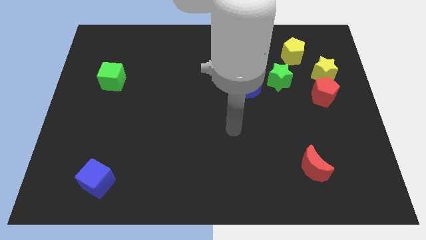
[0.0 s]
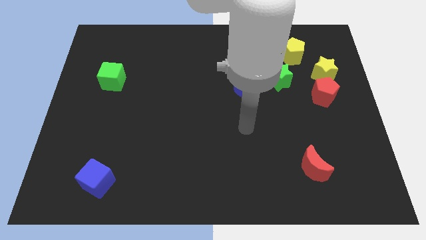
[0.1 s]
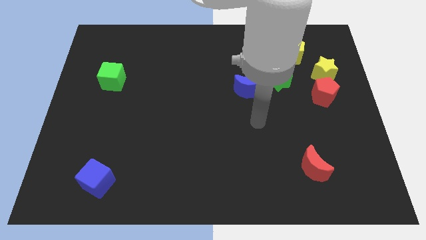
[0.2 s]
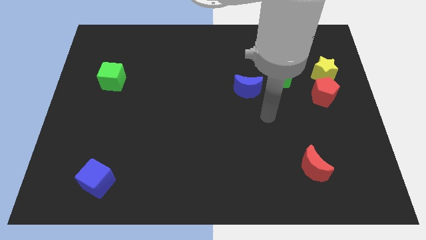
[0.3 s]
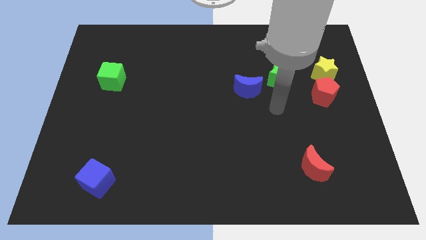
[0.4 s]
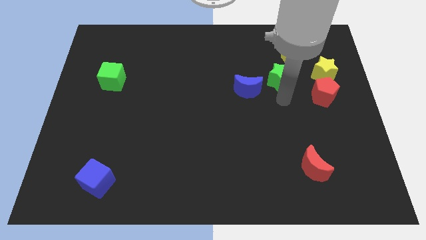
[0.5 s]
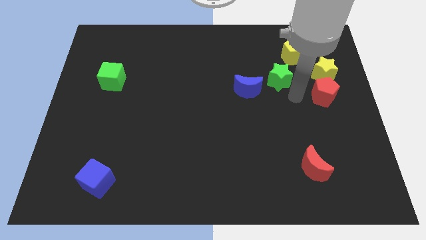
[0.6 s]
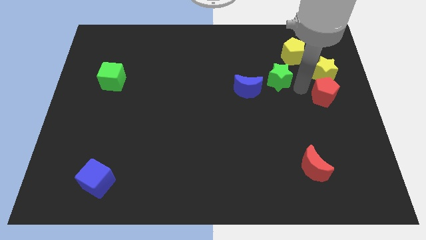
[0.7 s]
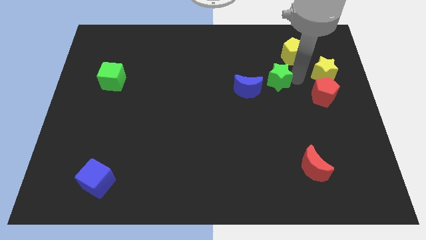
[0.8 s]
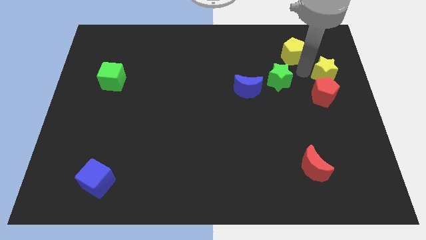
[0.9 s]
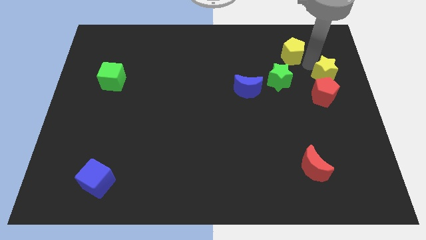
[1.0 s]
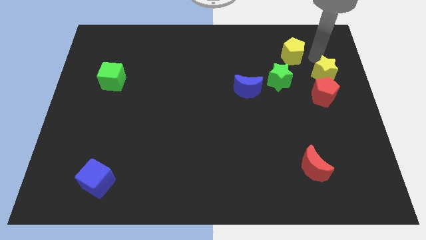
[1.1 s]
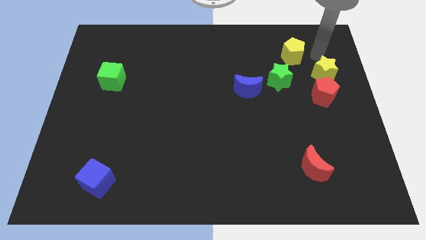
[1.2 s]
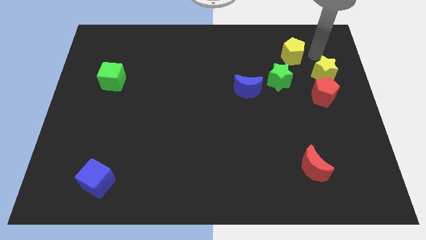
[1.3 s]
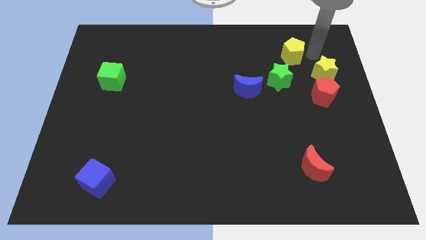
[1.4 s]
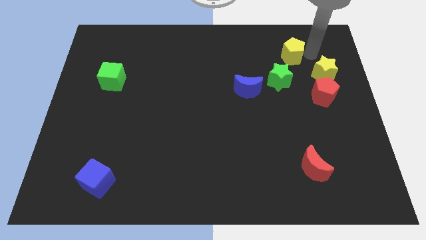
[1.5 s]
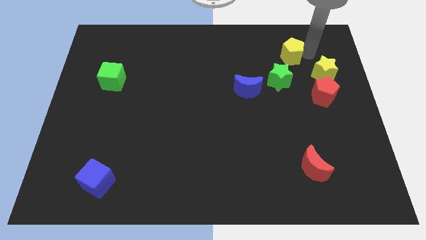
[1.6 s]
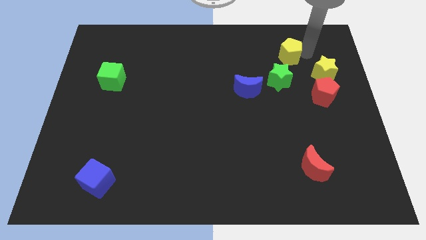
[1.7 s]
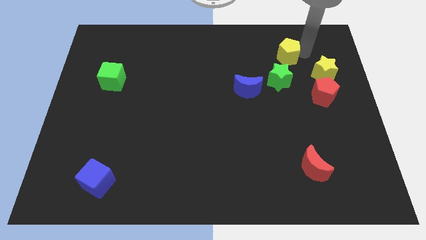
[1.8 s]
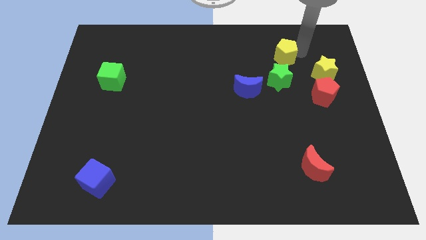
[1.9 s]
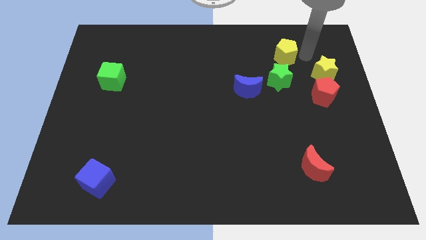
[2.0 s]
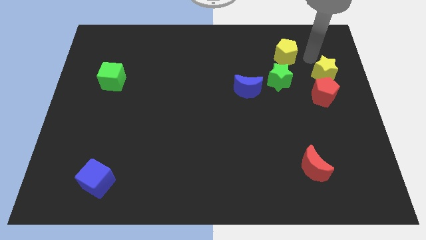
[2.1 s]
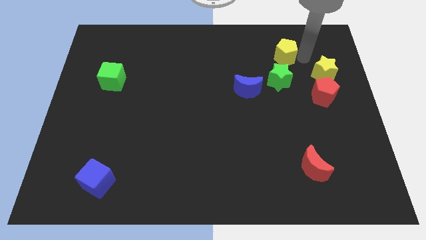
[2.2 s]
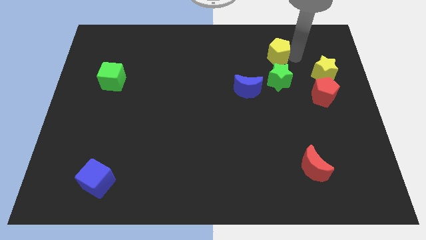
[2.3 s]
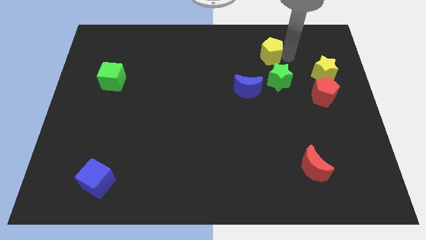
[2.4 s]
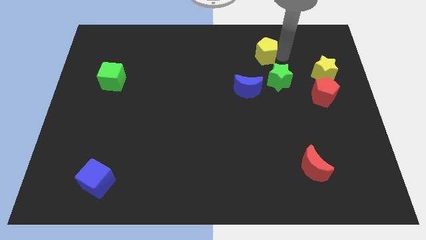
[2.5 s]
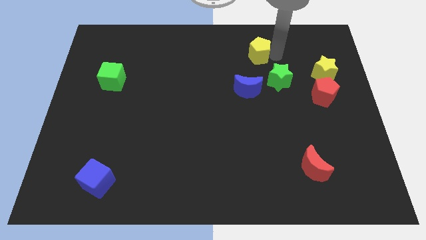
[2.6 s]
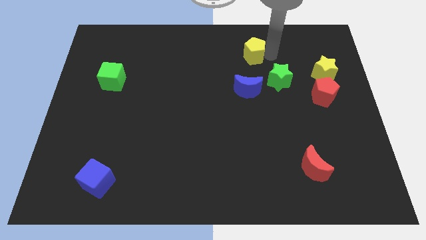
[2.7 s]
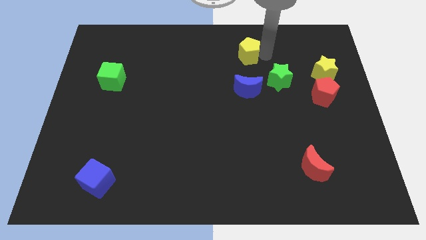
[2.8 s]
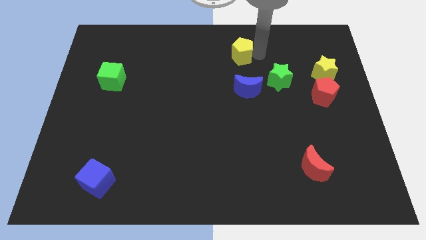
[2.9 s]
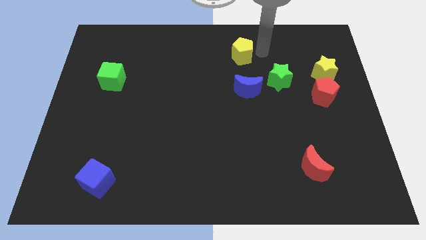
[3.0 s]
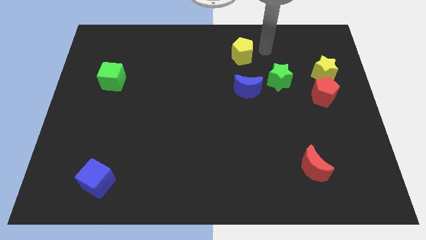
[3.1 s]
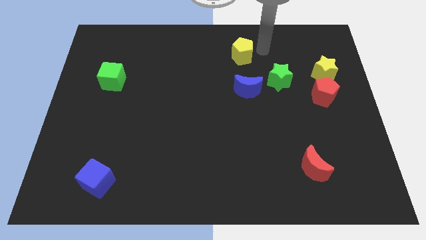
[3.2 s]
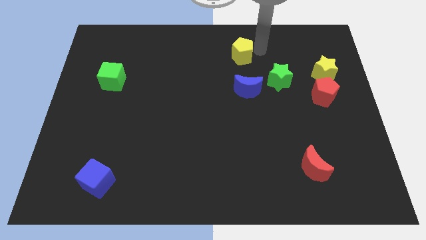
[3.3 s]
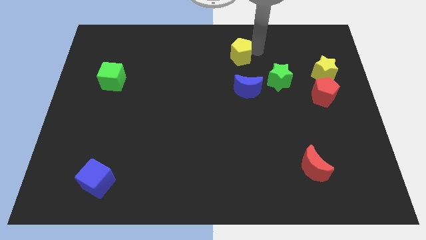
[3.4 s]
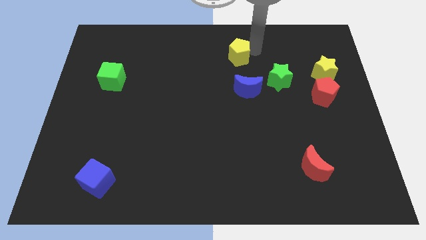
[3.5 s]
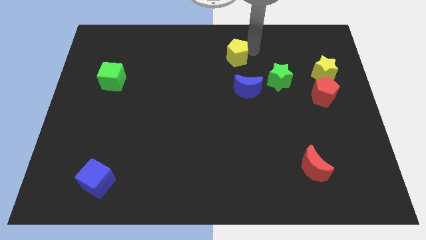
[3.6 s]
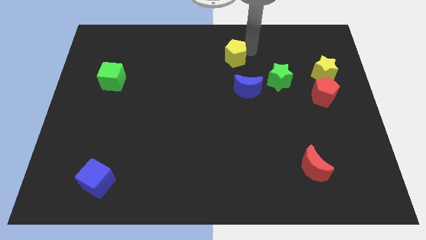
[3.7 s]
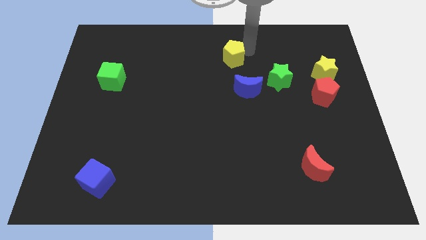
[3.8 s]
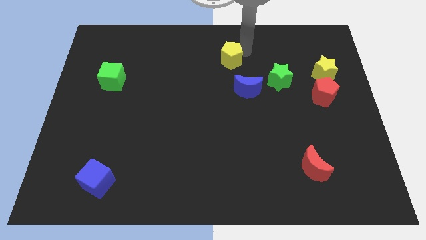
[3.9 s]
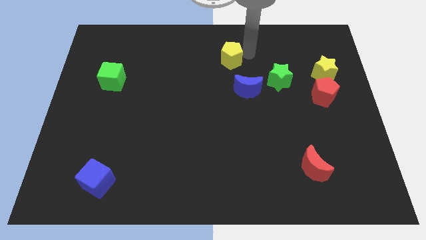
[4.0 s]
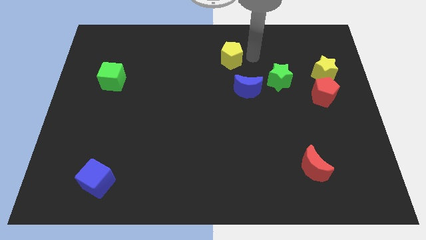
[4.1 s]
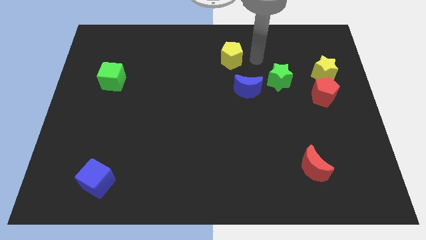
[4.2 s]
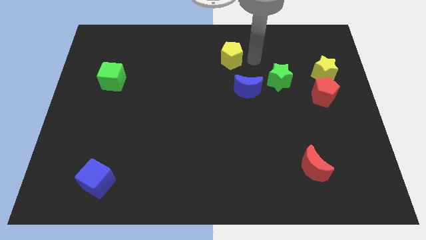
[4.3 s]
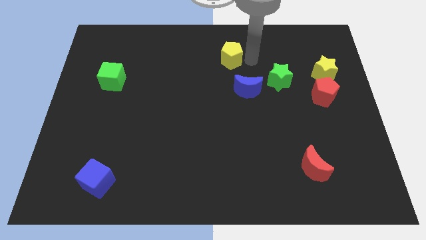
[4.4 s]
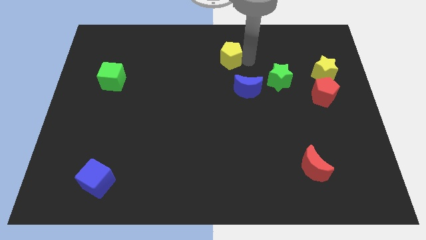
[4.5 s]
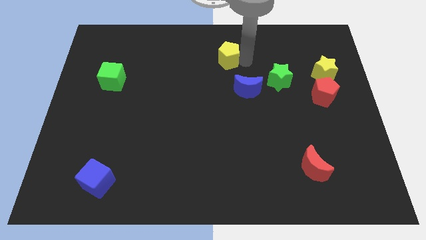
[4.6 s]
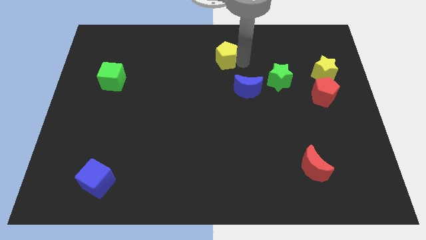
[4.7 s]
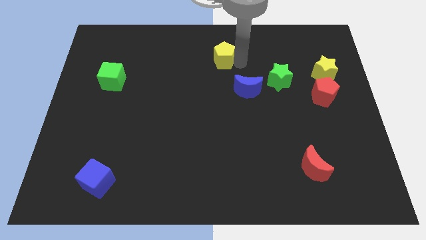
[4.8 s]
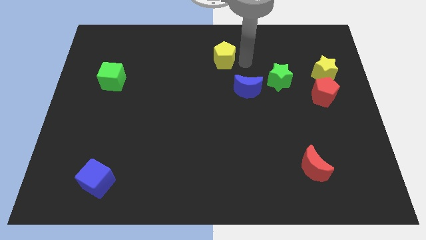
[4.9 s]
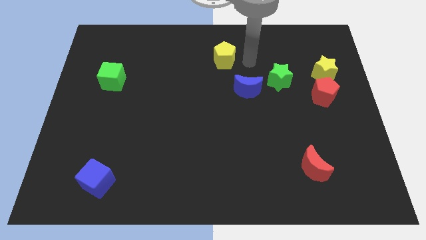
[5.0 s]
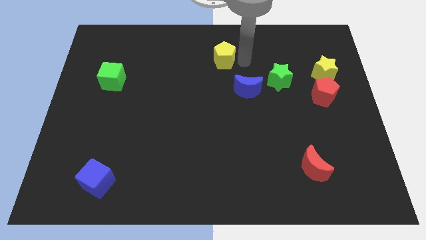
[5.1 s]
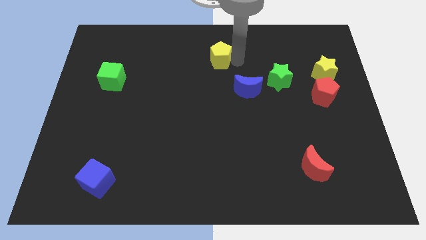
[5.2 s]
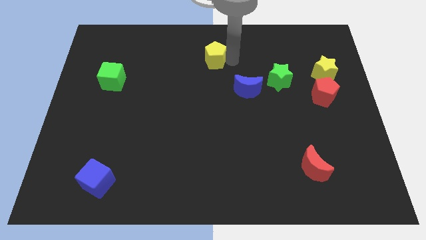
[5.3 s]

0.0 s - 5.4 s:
move the yellow pentagon left

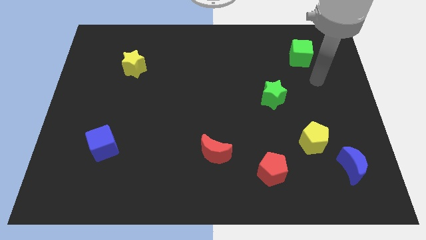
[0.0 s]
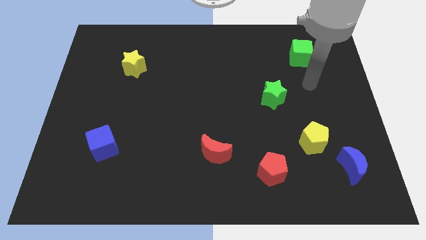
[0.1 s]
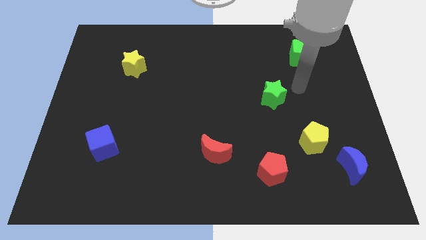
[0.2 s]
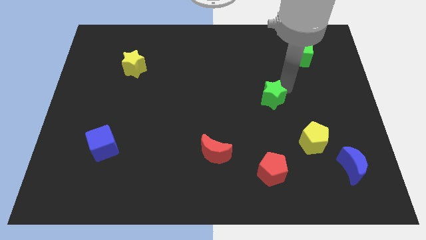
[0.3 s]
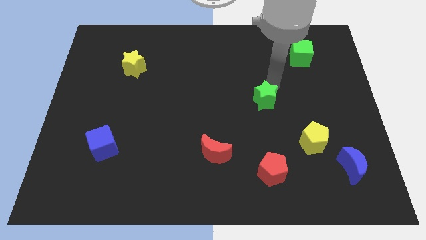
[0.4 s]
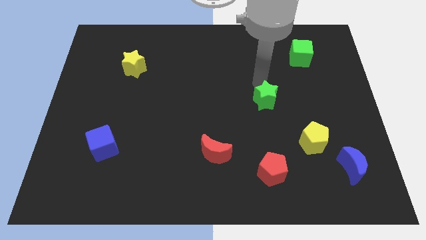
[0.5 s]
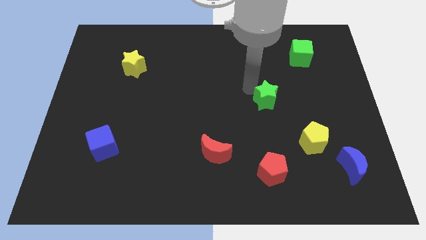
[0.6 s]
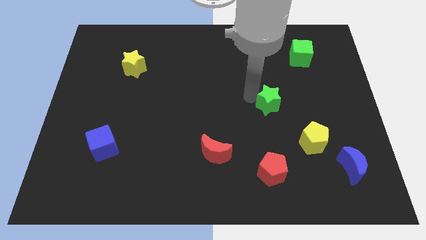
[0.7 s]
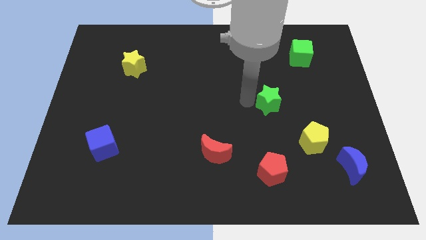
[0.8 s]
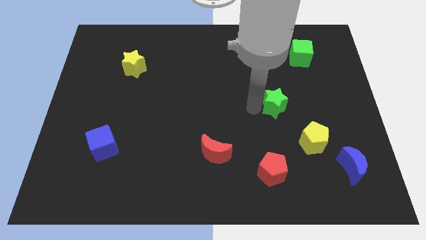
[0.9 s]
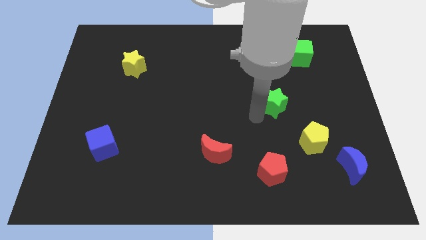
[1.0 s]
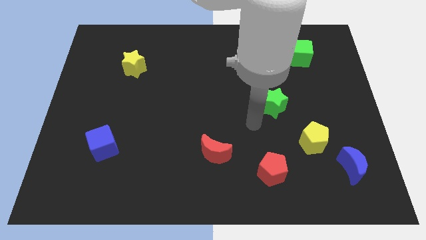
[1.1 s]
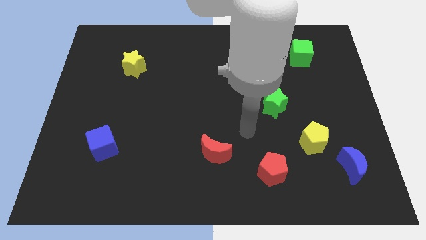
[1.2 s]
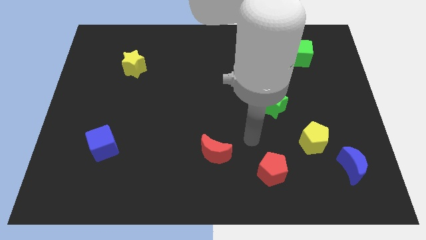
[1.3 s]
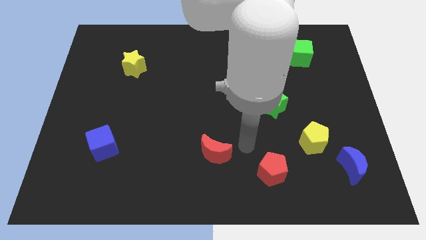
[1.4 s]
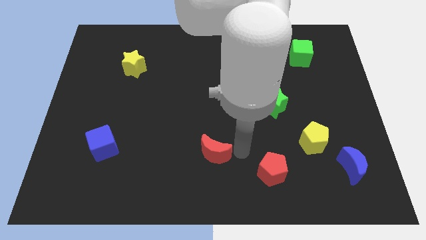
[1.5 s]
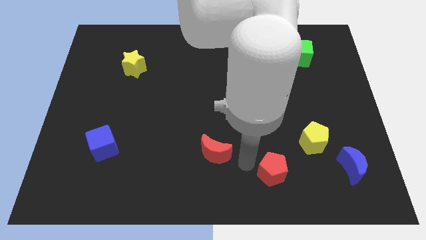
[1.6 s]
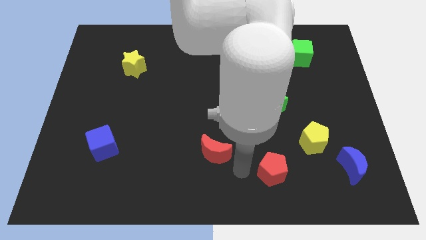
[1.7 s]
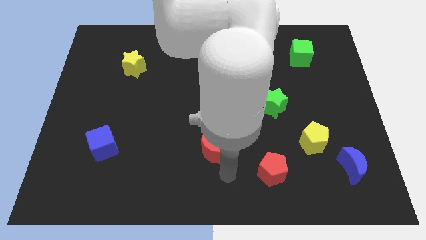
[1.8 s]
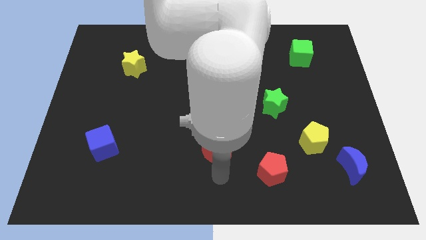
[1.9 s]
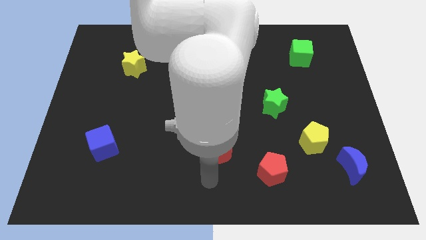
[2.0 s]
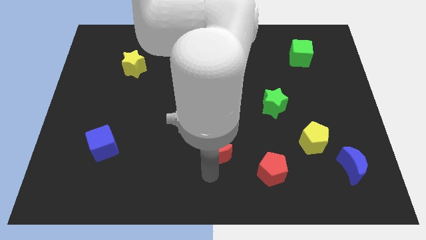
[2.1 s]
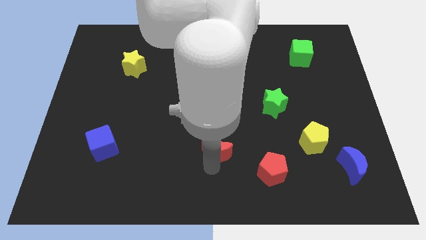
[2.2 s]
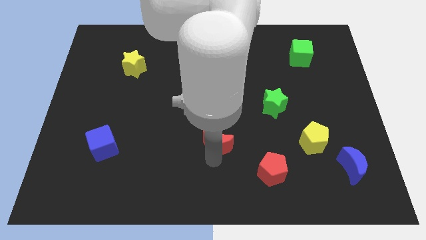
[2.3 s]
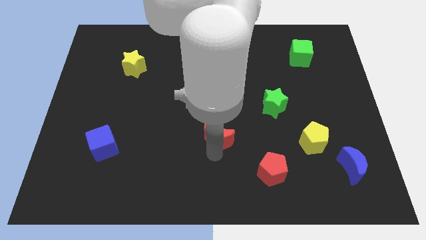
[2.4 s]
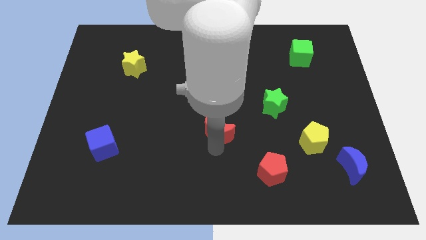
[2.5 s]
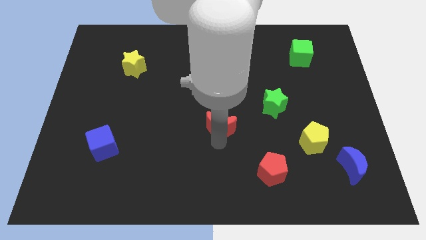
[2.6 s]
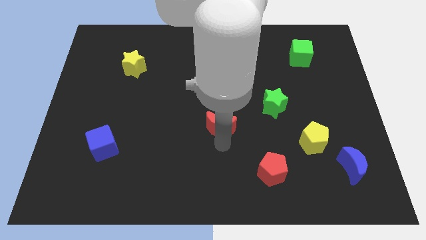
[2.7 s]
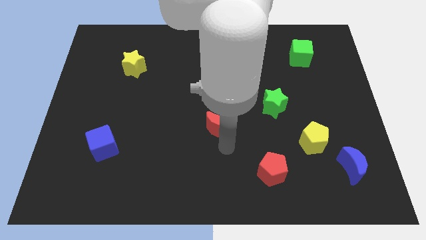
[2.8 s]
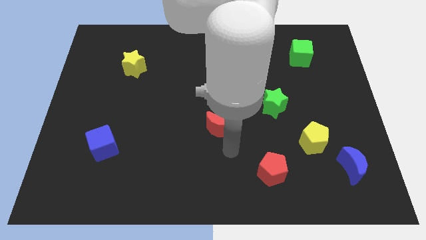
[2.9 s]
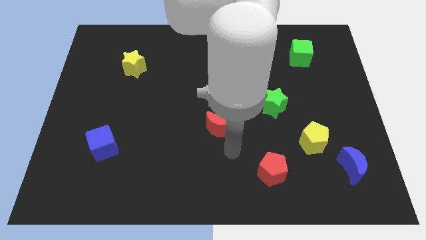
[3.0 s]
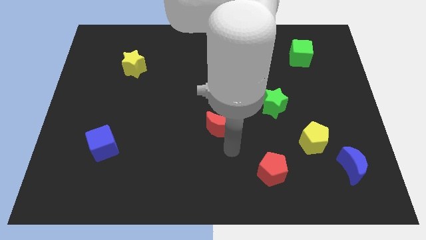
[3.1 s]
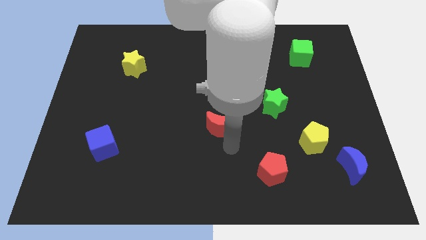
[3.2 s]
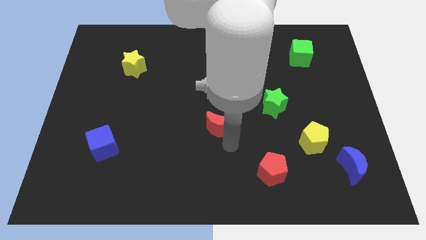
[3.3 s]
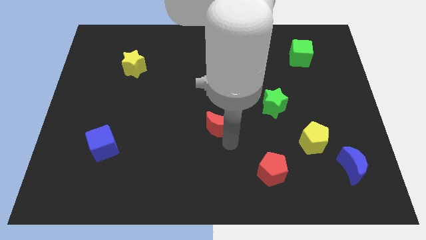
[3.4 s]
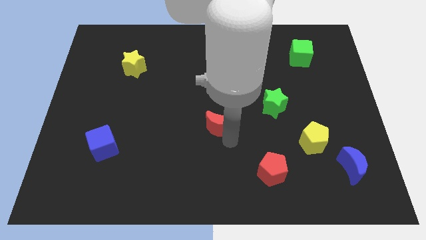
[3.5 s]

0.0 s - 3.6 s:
push the red moon a little bit upwards
